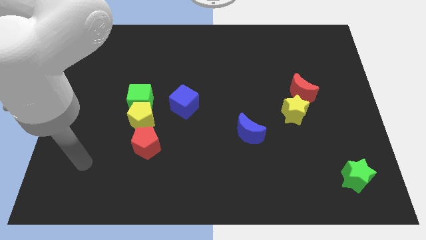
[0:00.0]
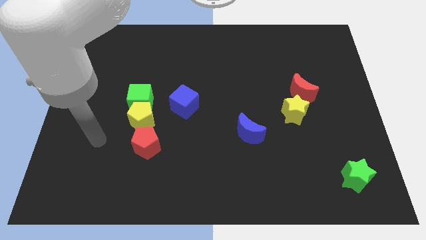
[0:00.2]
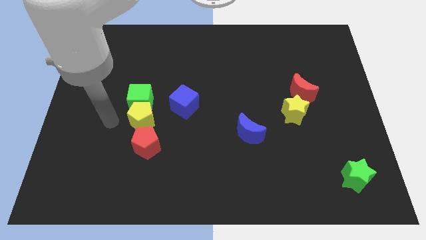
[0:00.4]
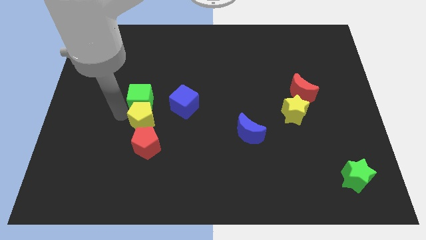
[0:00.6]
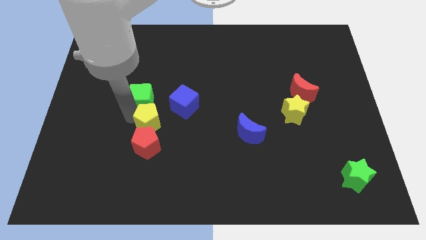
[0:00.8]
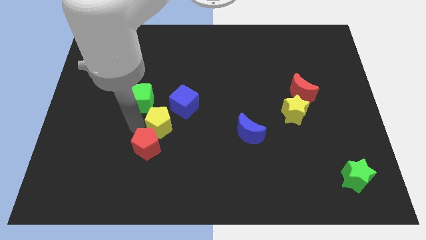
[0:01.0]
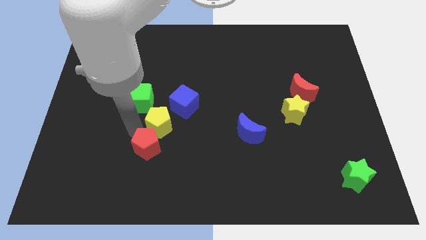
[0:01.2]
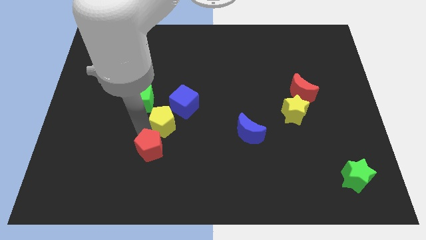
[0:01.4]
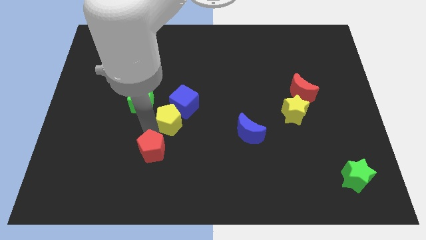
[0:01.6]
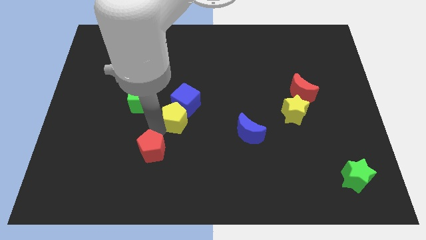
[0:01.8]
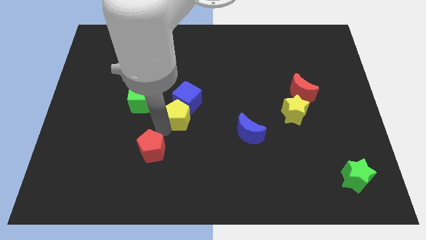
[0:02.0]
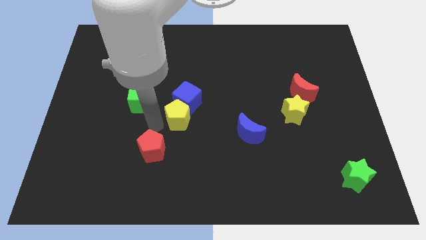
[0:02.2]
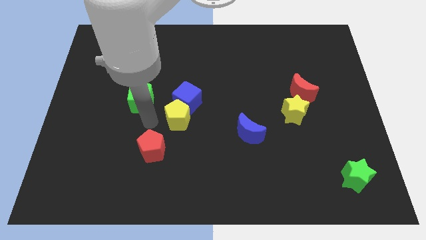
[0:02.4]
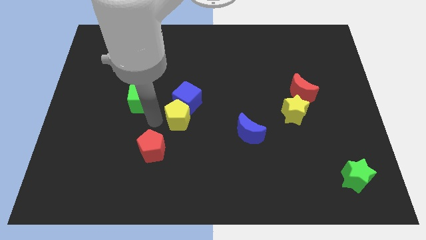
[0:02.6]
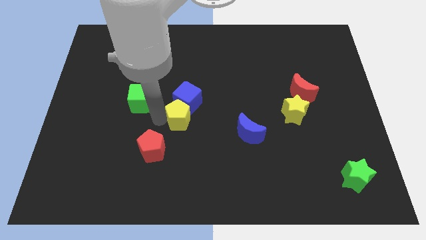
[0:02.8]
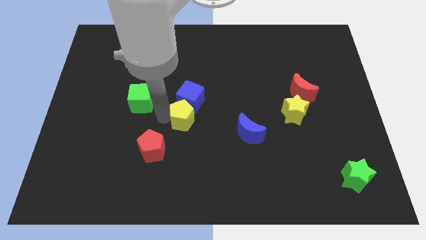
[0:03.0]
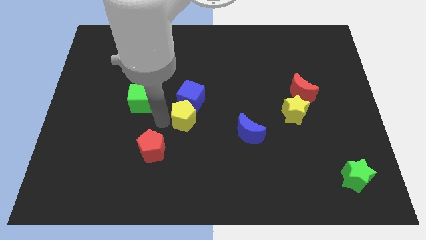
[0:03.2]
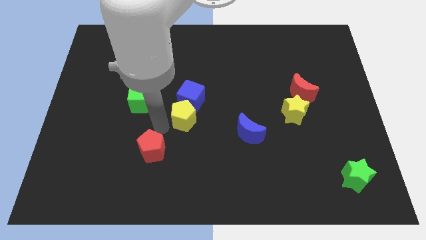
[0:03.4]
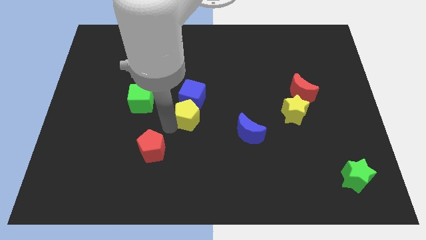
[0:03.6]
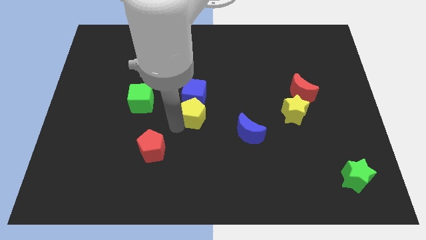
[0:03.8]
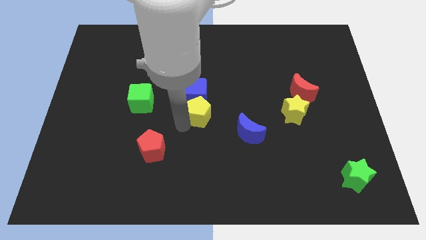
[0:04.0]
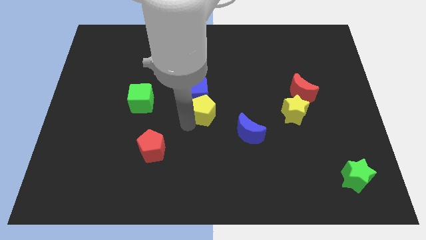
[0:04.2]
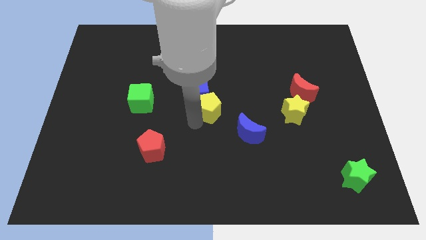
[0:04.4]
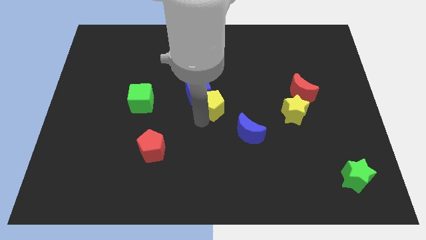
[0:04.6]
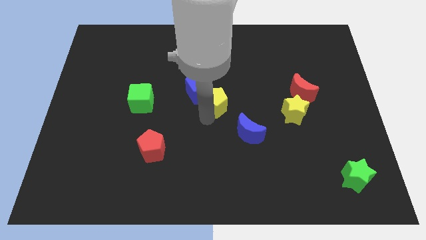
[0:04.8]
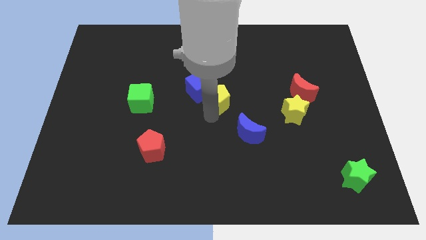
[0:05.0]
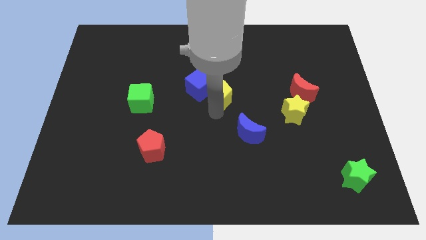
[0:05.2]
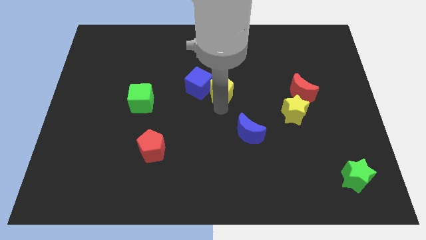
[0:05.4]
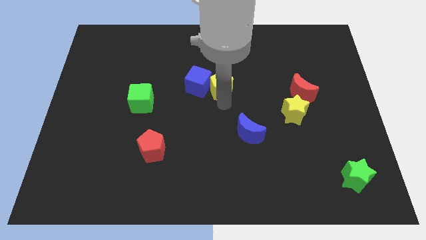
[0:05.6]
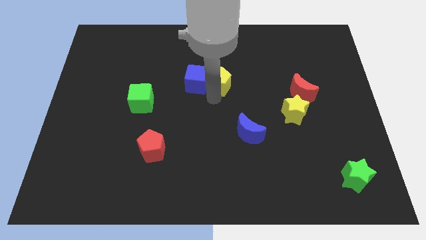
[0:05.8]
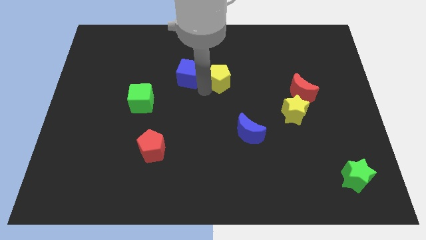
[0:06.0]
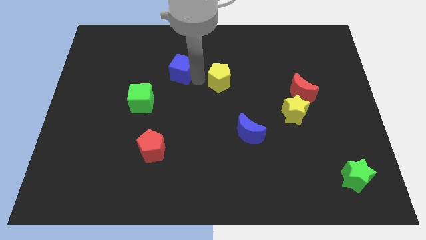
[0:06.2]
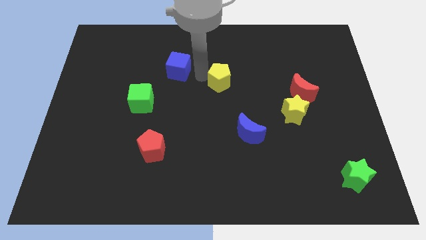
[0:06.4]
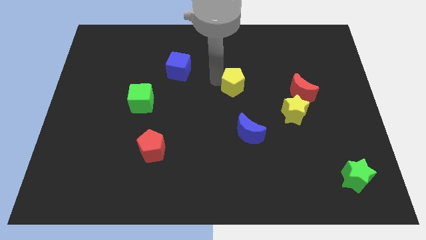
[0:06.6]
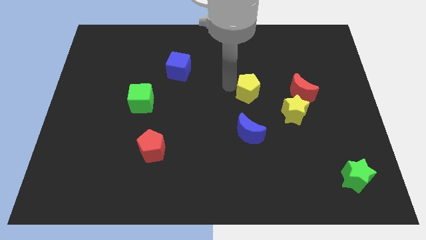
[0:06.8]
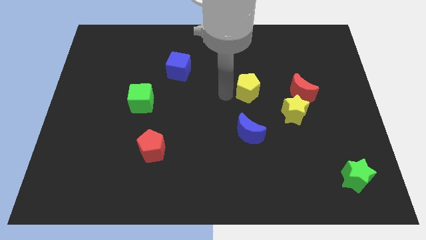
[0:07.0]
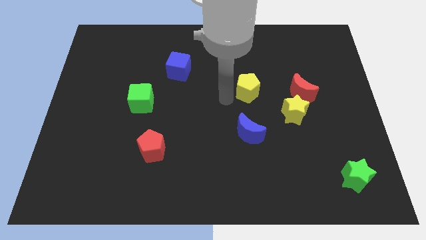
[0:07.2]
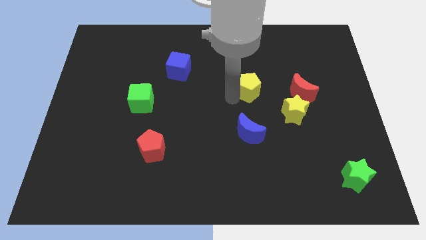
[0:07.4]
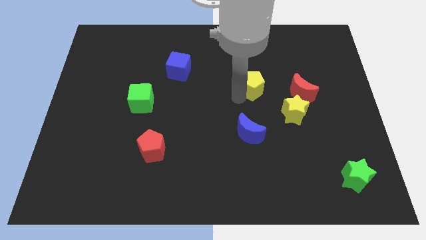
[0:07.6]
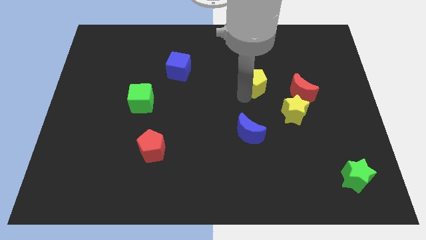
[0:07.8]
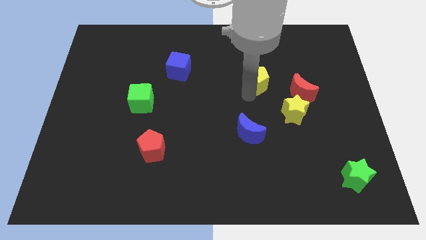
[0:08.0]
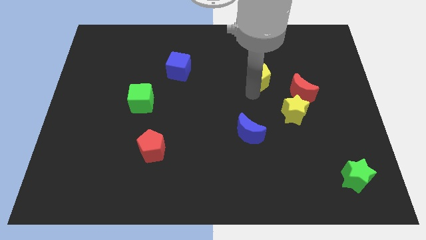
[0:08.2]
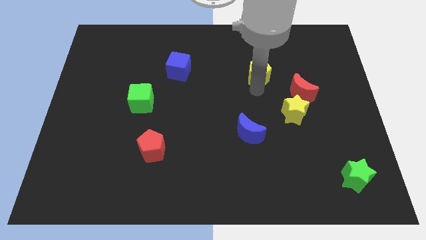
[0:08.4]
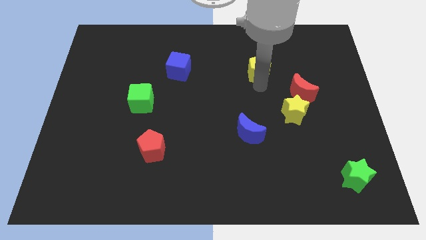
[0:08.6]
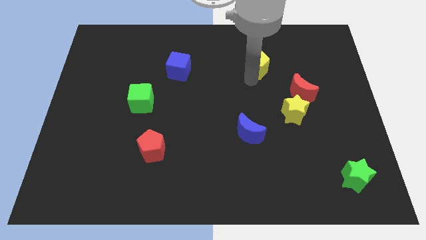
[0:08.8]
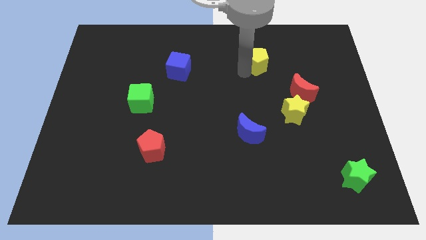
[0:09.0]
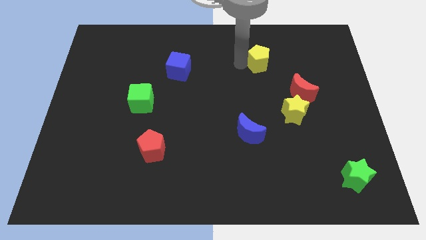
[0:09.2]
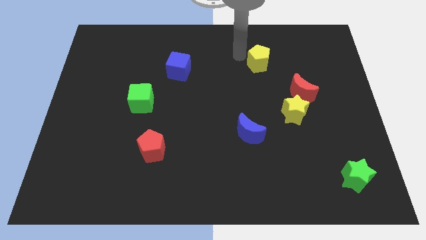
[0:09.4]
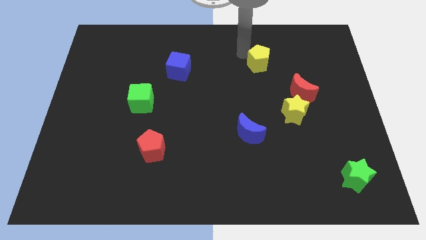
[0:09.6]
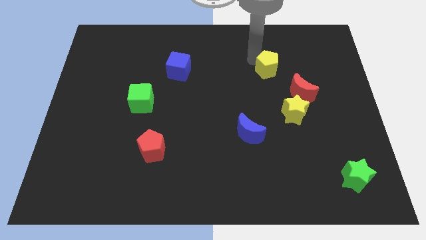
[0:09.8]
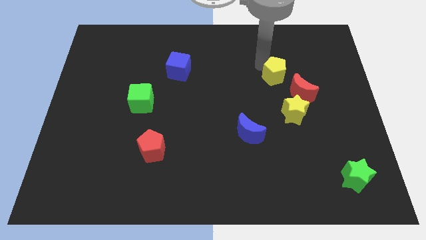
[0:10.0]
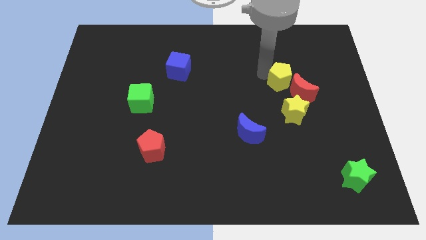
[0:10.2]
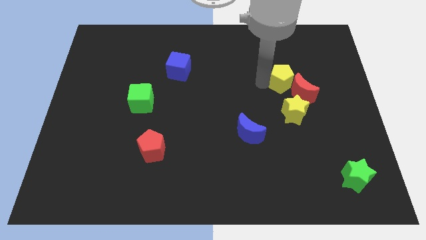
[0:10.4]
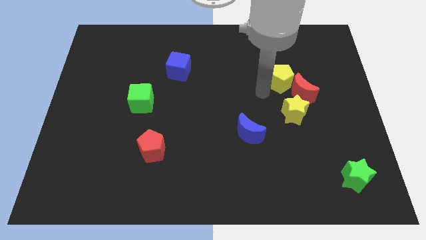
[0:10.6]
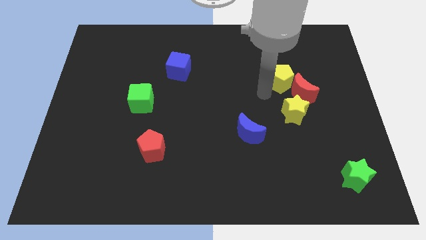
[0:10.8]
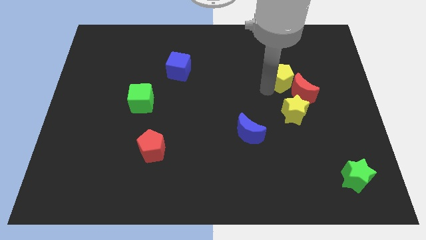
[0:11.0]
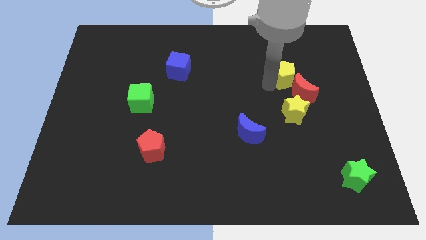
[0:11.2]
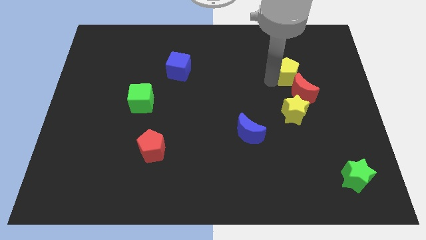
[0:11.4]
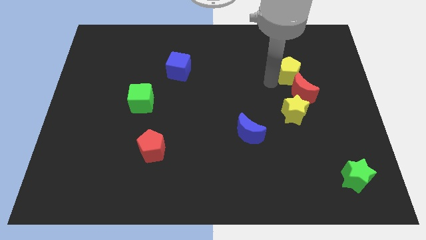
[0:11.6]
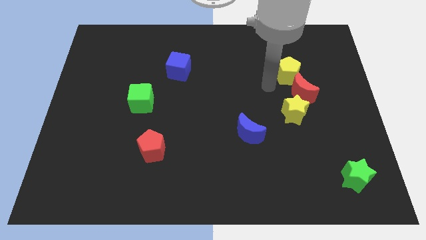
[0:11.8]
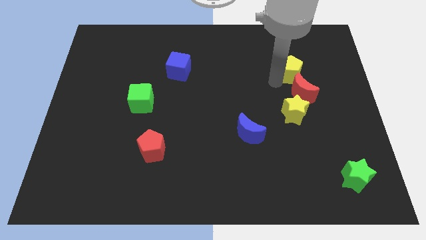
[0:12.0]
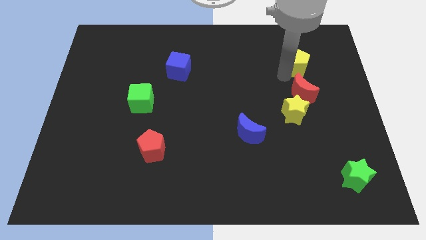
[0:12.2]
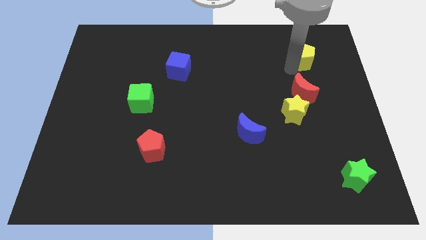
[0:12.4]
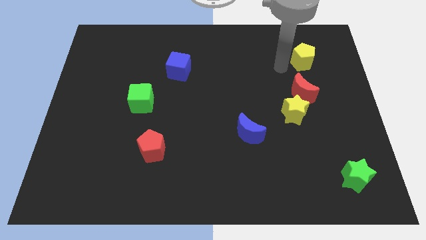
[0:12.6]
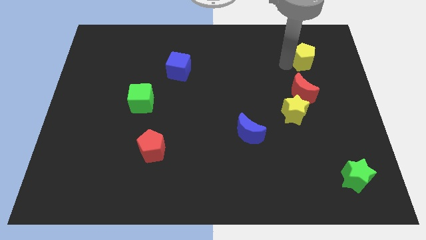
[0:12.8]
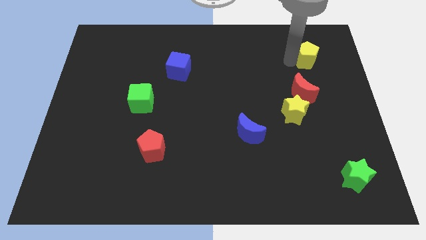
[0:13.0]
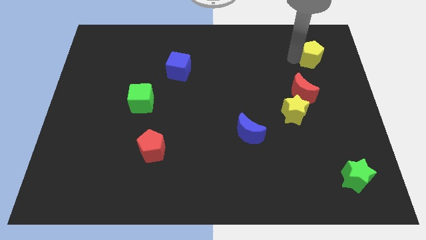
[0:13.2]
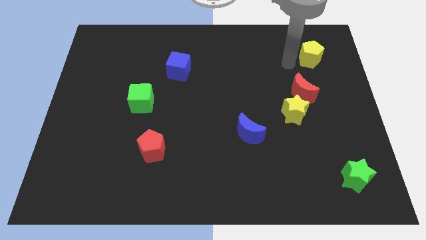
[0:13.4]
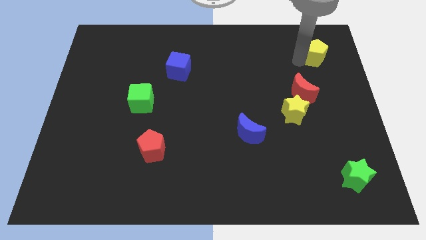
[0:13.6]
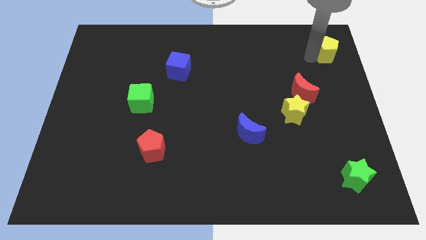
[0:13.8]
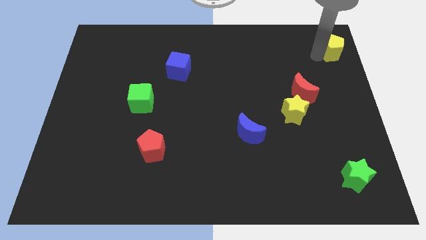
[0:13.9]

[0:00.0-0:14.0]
put the yellow pentagon to the top right of the board
